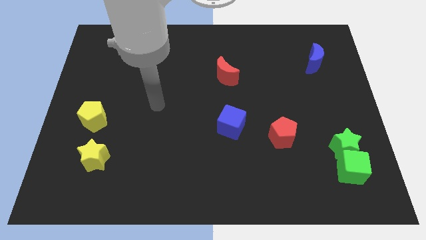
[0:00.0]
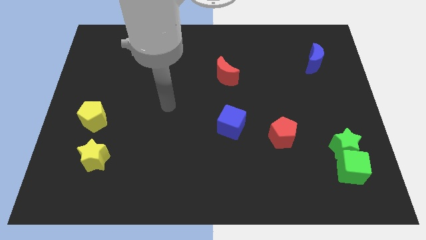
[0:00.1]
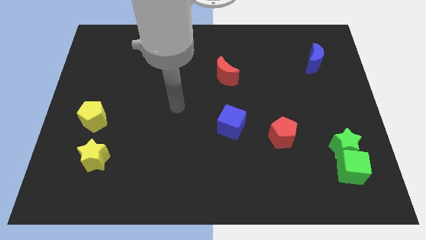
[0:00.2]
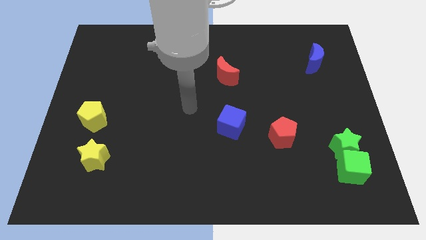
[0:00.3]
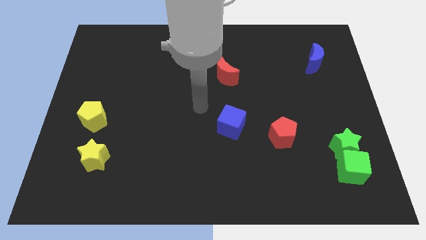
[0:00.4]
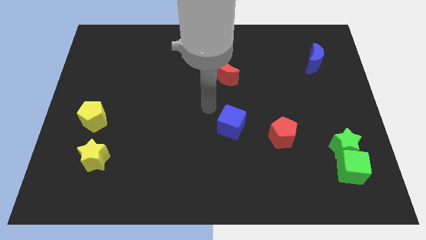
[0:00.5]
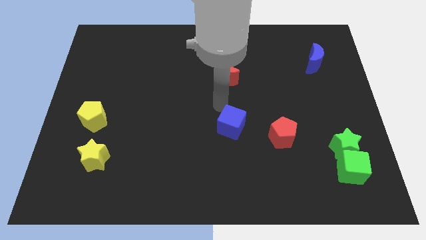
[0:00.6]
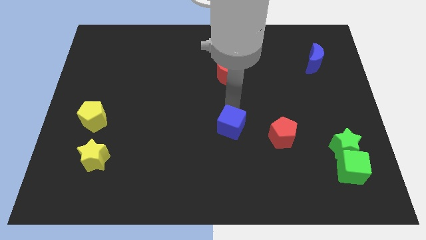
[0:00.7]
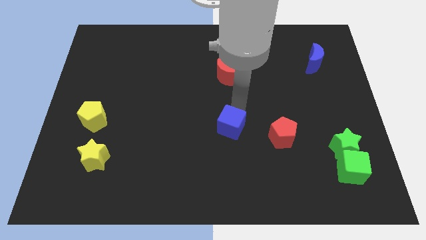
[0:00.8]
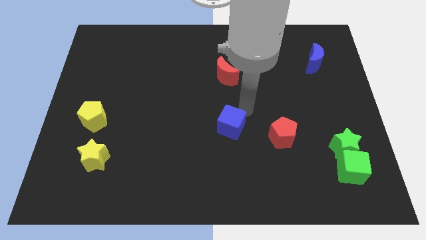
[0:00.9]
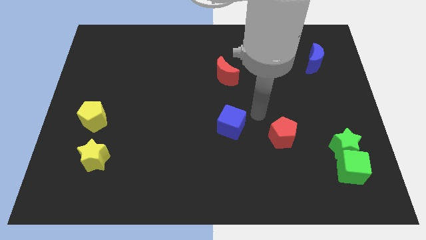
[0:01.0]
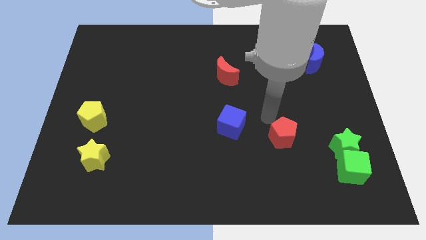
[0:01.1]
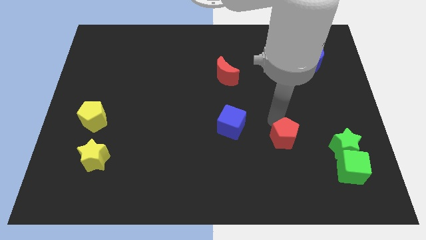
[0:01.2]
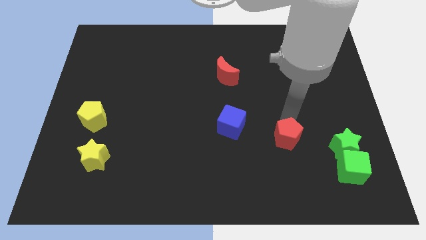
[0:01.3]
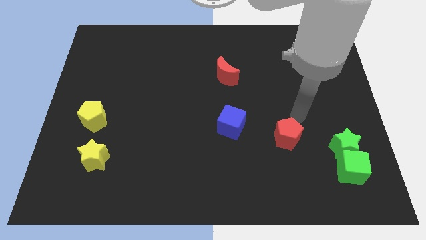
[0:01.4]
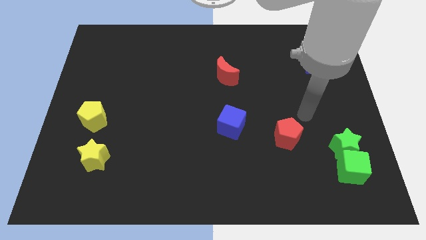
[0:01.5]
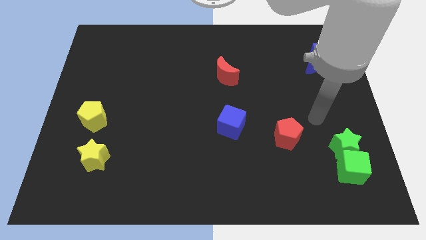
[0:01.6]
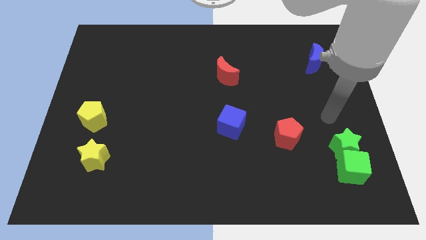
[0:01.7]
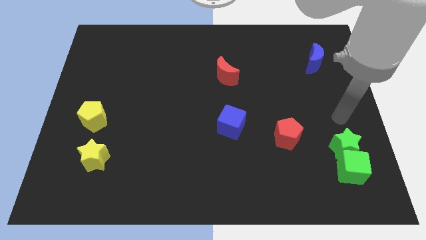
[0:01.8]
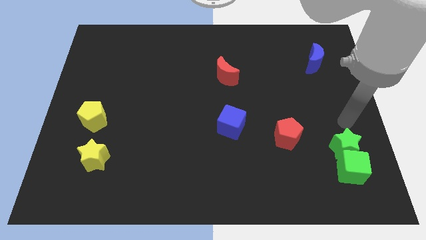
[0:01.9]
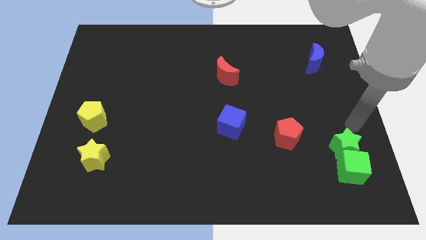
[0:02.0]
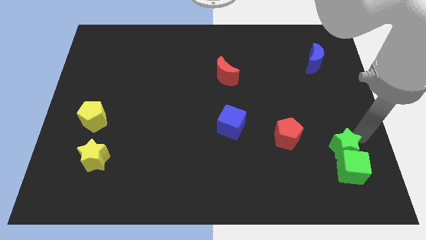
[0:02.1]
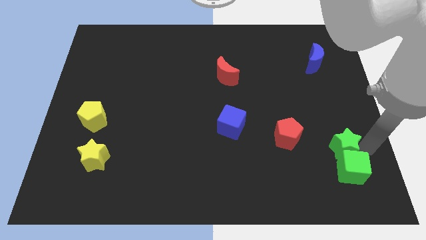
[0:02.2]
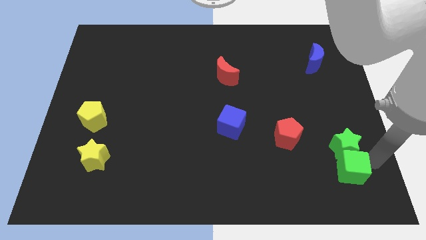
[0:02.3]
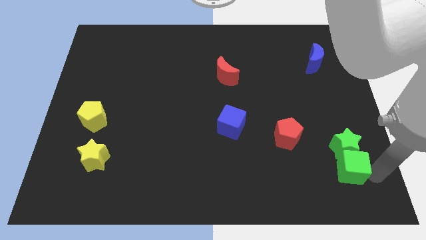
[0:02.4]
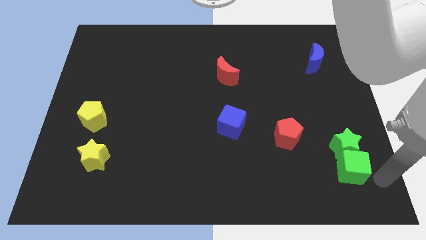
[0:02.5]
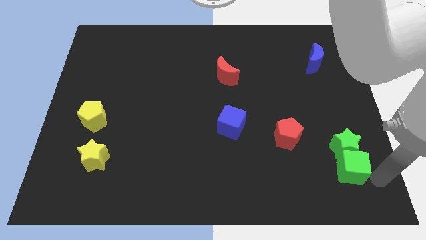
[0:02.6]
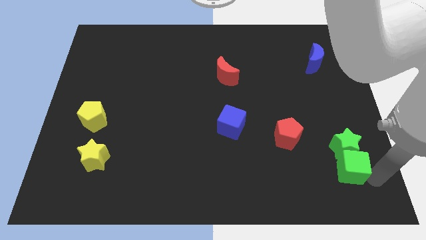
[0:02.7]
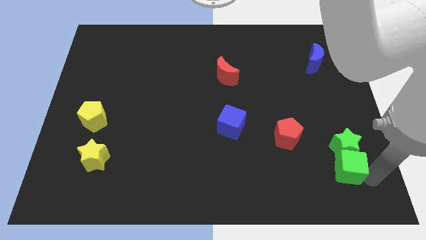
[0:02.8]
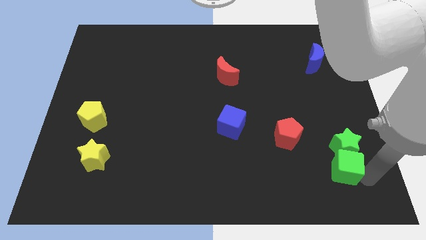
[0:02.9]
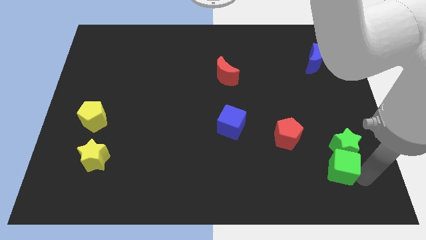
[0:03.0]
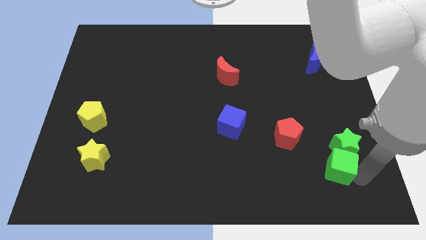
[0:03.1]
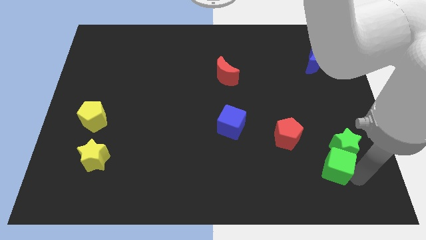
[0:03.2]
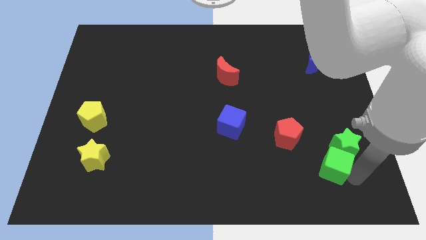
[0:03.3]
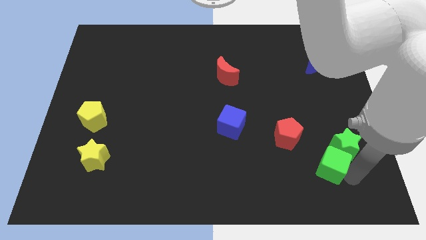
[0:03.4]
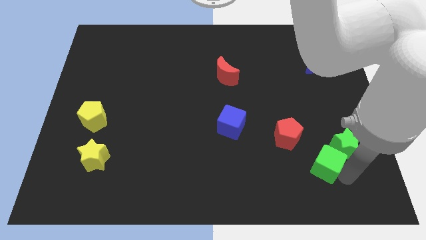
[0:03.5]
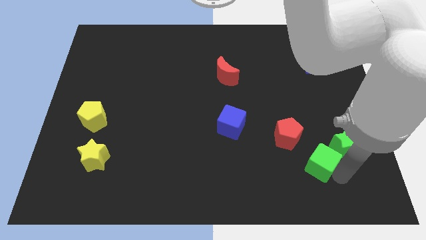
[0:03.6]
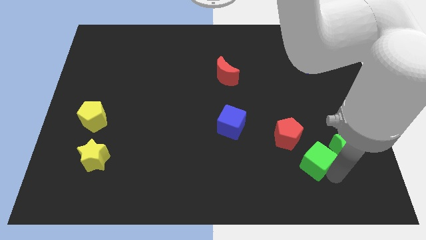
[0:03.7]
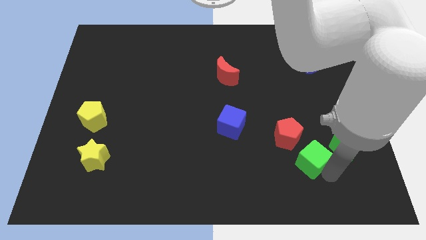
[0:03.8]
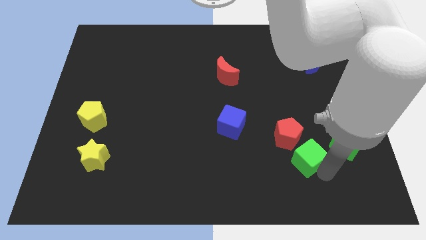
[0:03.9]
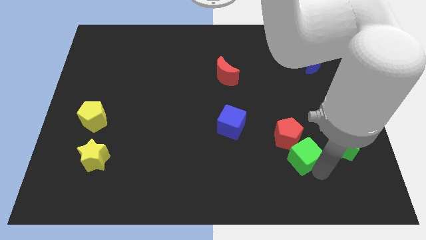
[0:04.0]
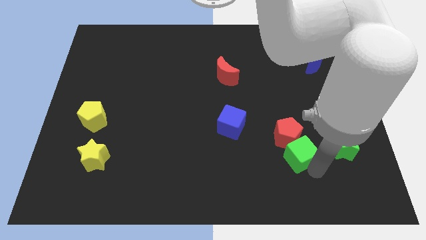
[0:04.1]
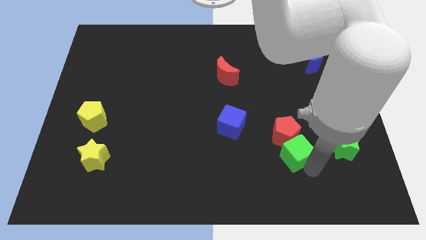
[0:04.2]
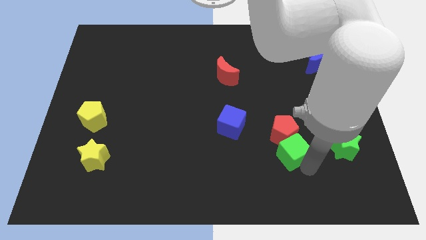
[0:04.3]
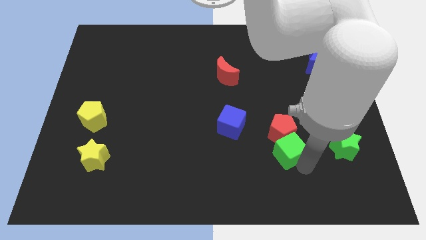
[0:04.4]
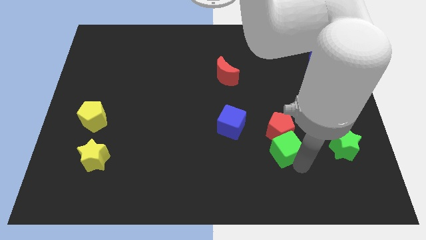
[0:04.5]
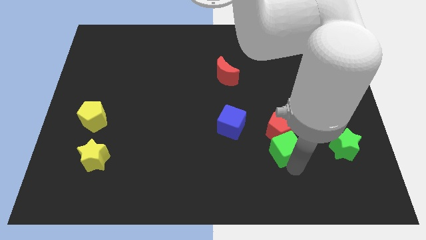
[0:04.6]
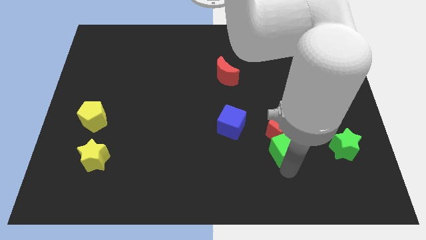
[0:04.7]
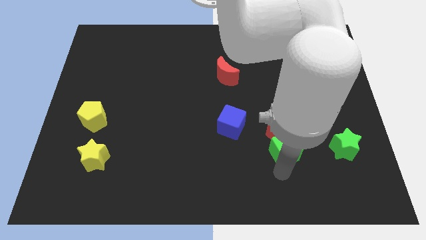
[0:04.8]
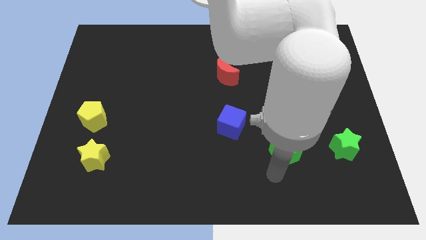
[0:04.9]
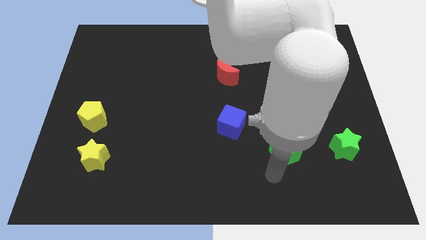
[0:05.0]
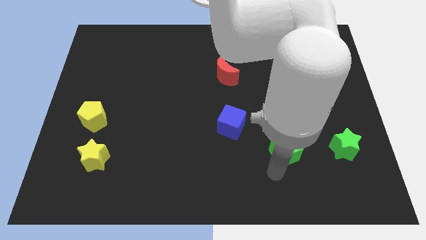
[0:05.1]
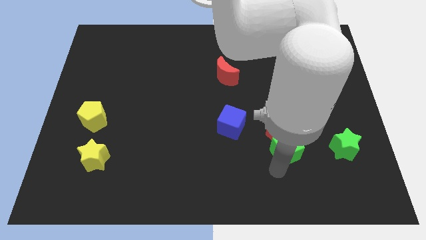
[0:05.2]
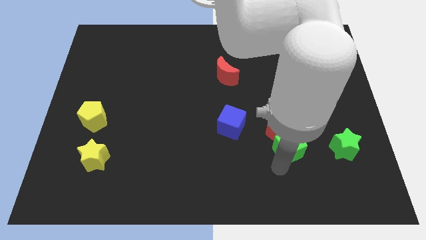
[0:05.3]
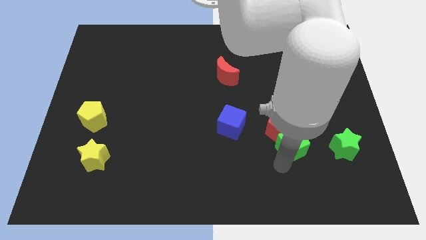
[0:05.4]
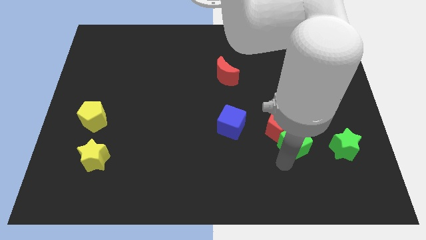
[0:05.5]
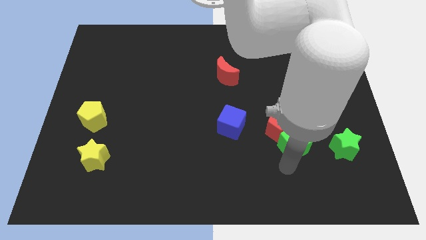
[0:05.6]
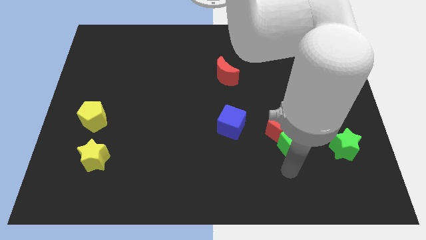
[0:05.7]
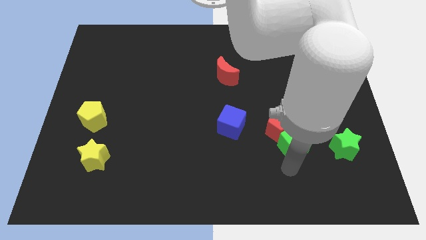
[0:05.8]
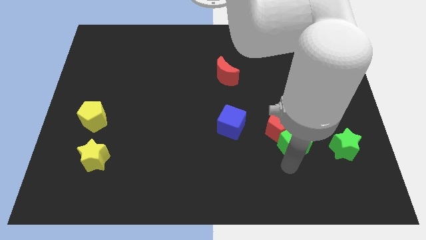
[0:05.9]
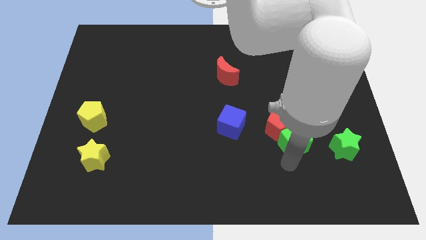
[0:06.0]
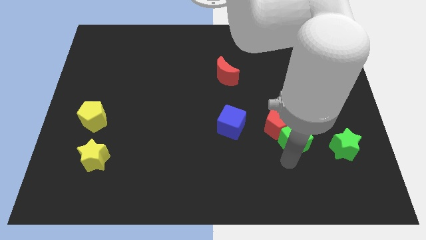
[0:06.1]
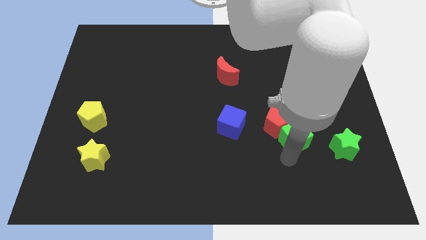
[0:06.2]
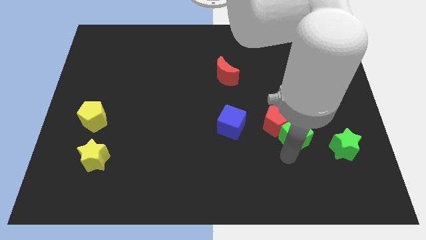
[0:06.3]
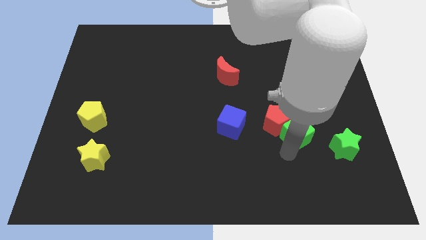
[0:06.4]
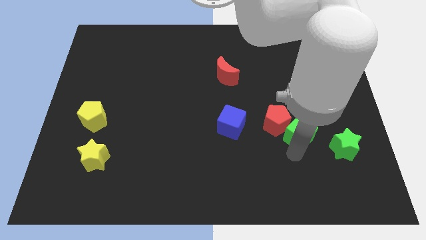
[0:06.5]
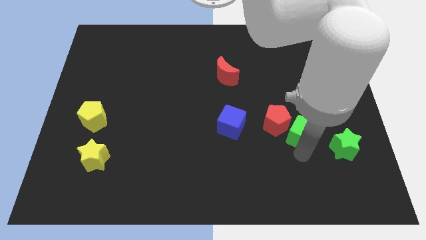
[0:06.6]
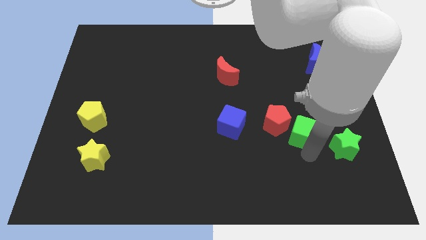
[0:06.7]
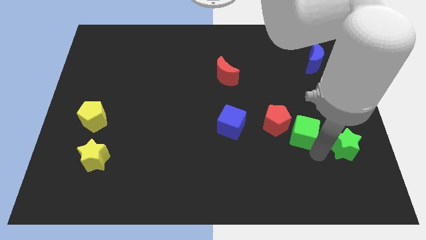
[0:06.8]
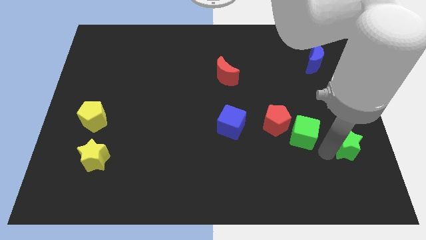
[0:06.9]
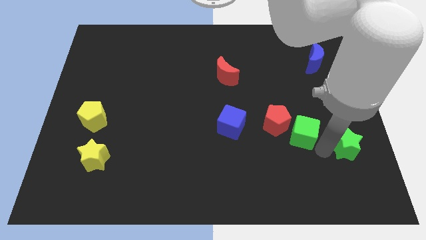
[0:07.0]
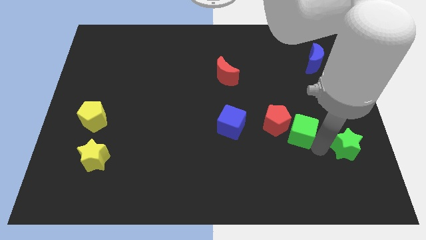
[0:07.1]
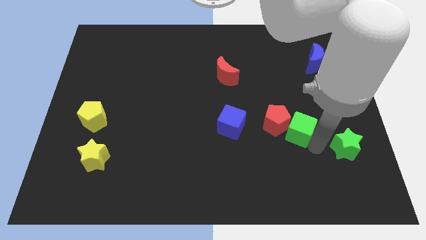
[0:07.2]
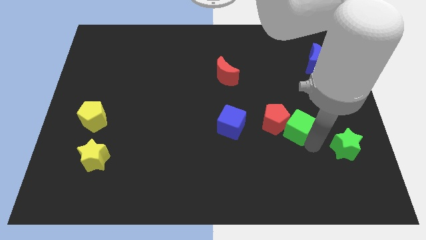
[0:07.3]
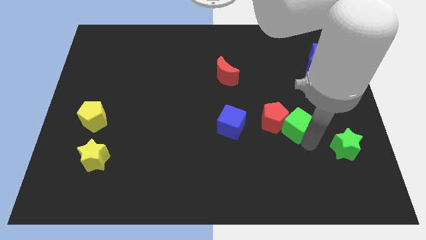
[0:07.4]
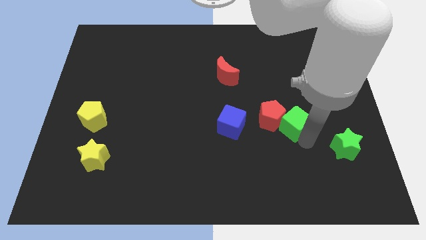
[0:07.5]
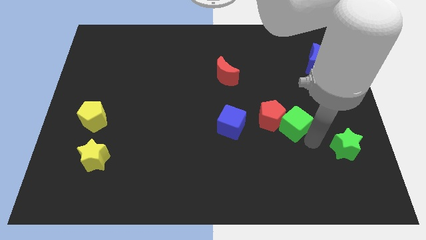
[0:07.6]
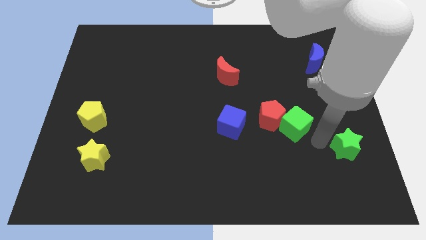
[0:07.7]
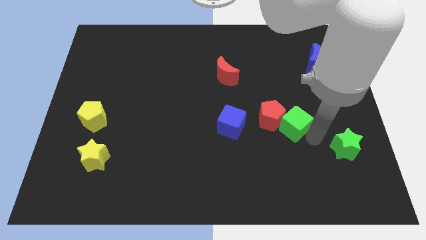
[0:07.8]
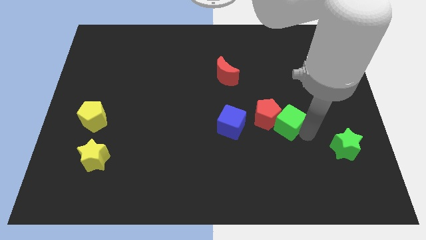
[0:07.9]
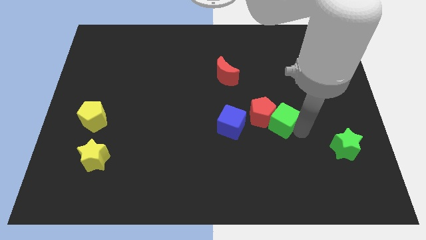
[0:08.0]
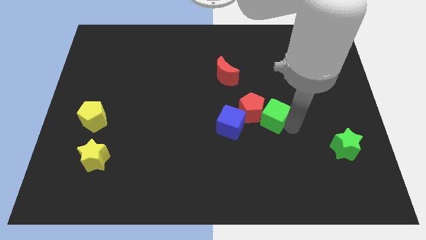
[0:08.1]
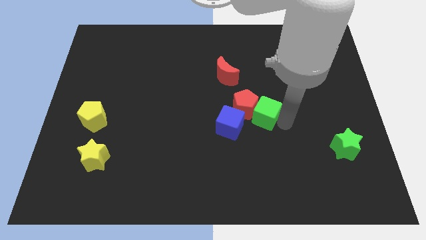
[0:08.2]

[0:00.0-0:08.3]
slide the green cube to the top right side of the blue cube
